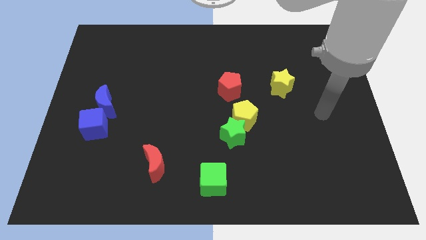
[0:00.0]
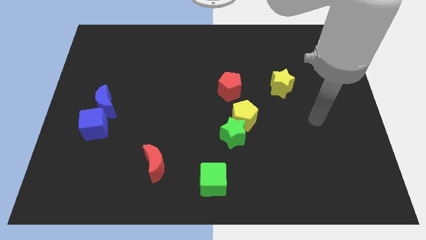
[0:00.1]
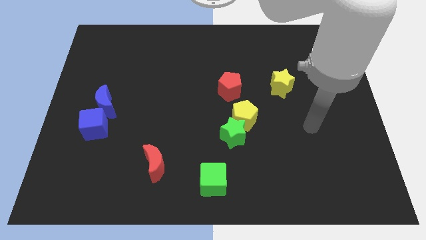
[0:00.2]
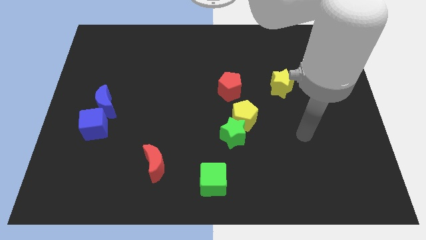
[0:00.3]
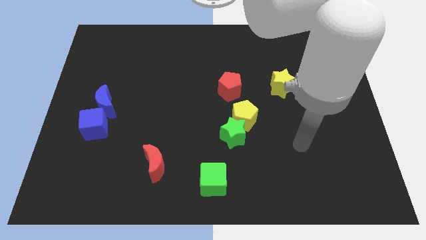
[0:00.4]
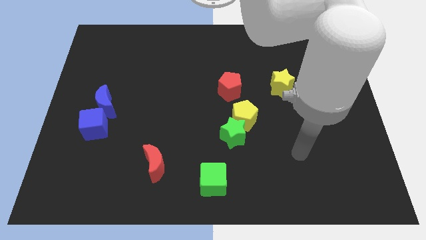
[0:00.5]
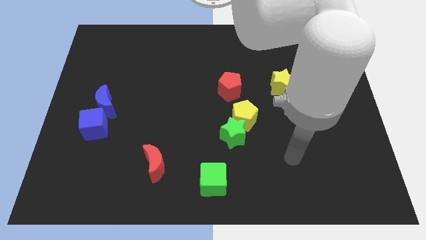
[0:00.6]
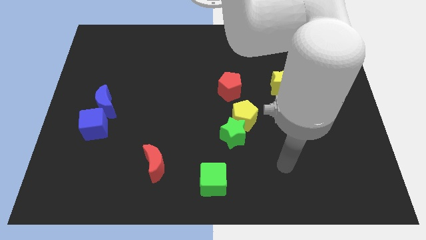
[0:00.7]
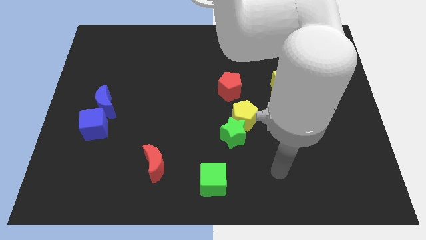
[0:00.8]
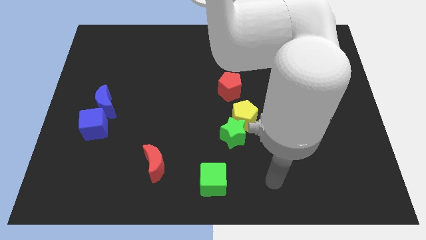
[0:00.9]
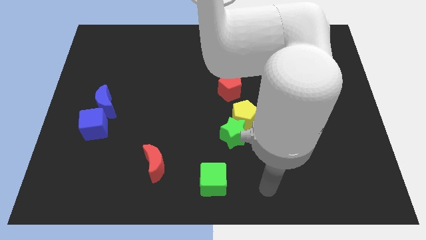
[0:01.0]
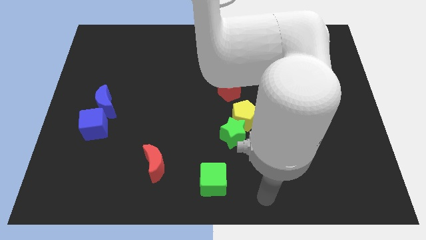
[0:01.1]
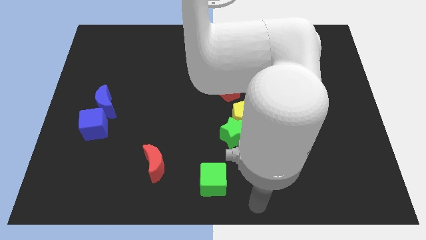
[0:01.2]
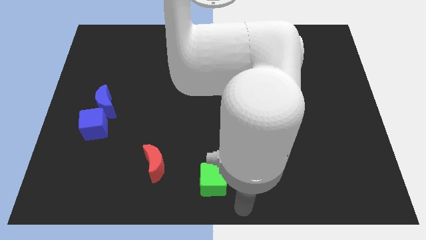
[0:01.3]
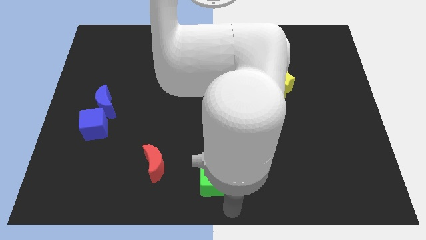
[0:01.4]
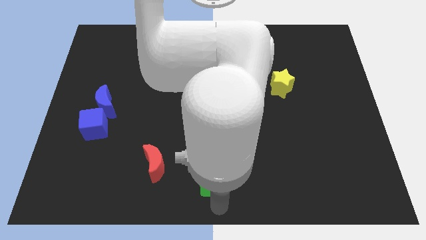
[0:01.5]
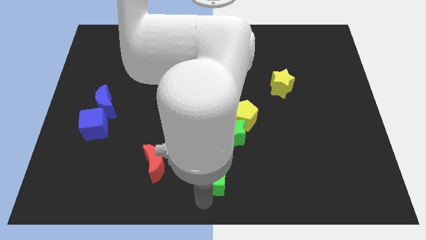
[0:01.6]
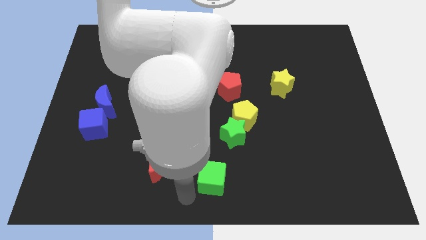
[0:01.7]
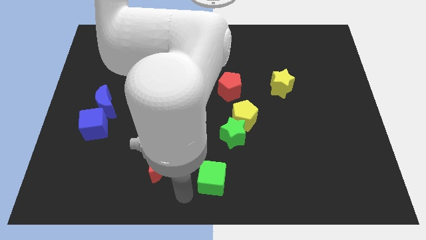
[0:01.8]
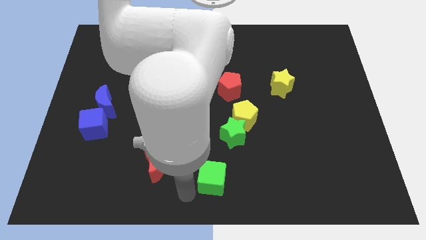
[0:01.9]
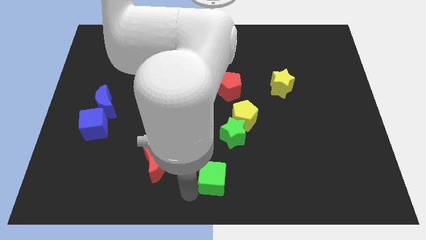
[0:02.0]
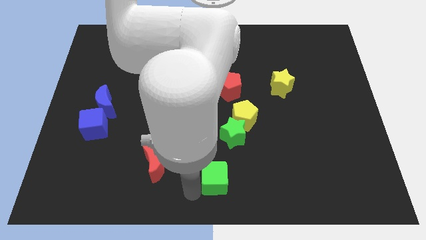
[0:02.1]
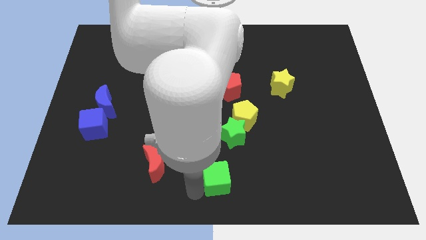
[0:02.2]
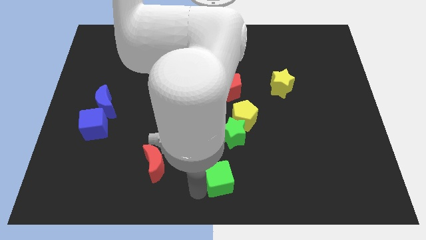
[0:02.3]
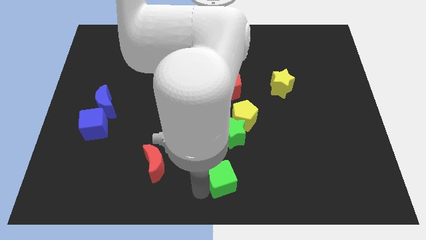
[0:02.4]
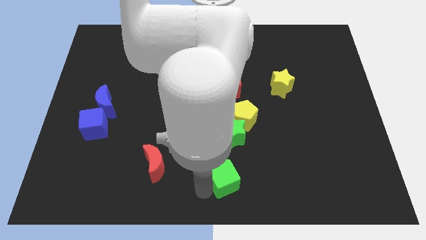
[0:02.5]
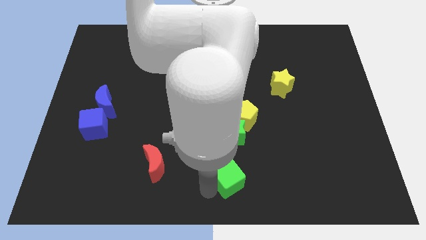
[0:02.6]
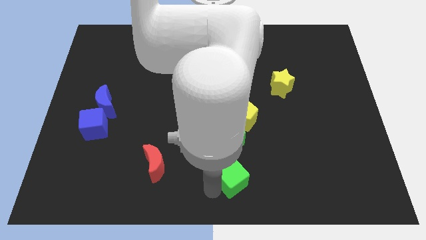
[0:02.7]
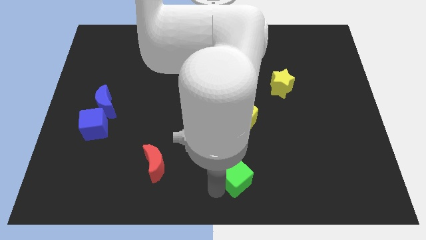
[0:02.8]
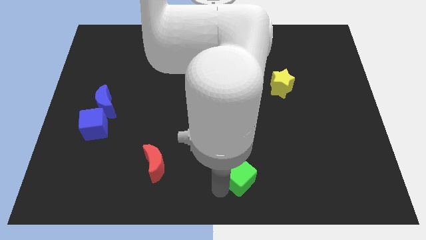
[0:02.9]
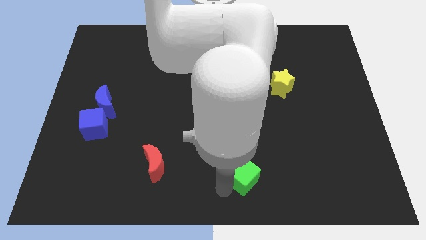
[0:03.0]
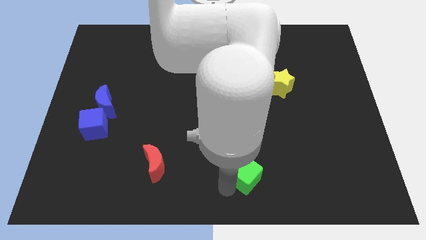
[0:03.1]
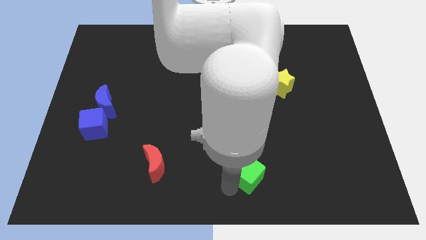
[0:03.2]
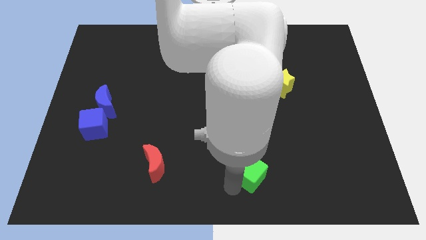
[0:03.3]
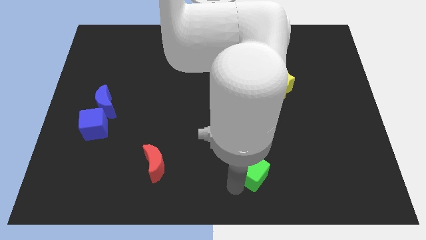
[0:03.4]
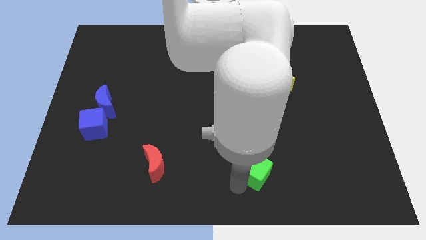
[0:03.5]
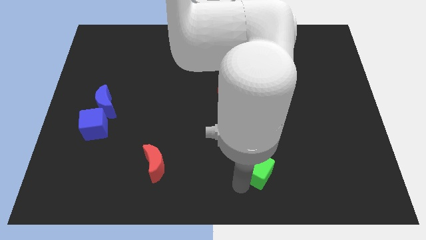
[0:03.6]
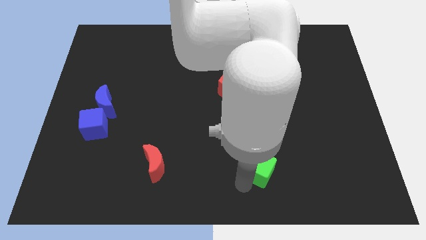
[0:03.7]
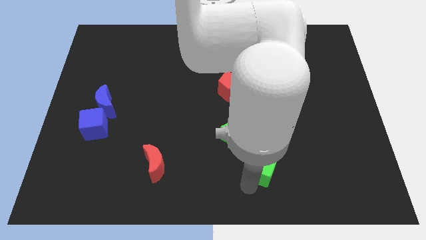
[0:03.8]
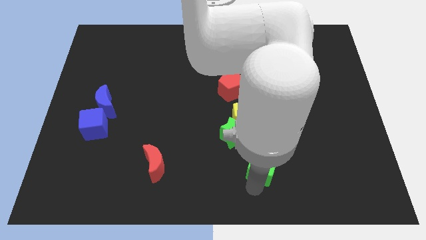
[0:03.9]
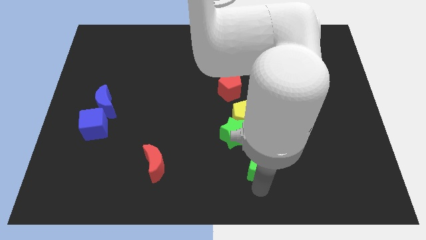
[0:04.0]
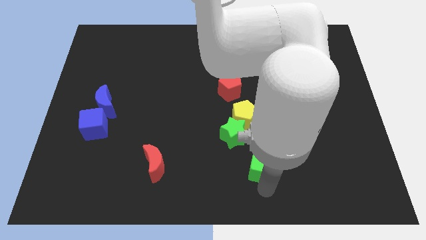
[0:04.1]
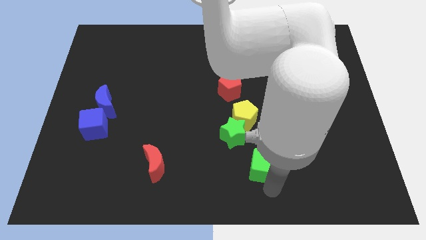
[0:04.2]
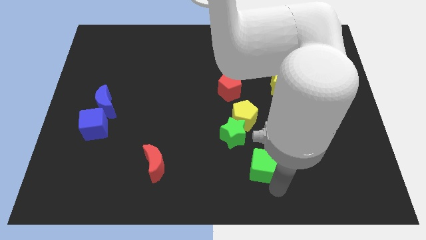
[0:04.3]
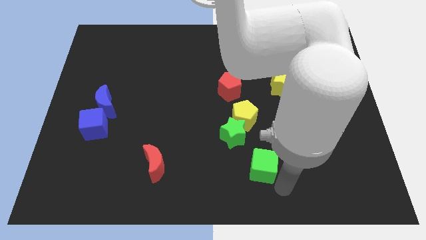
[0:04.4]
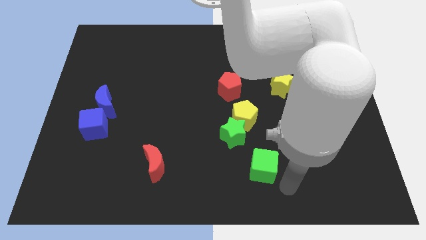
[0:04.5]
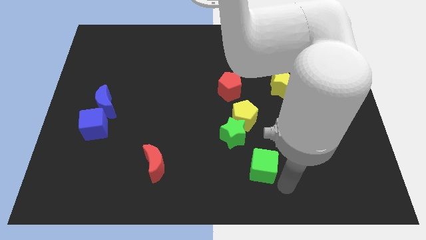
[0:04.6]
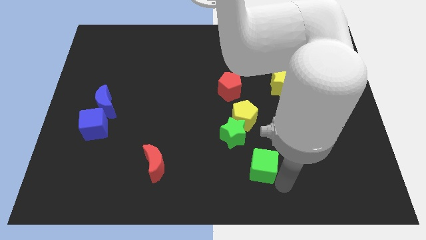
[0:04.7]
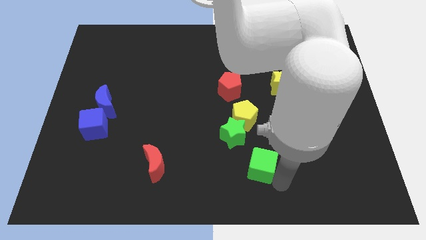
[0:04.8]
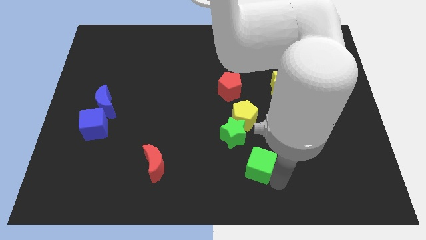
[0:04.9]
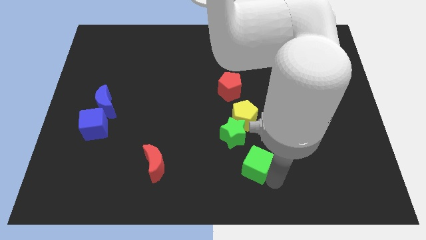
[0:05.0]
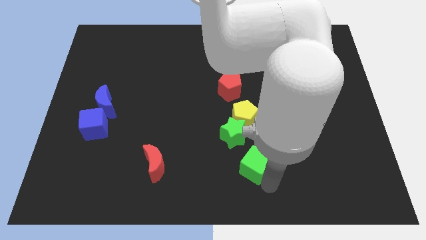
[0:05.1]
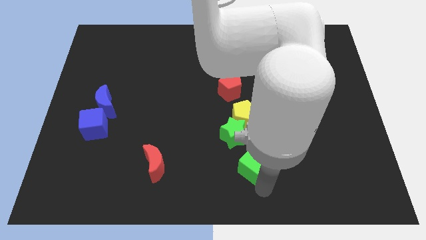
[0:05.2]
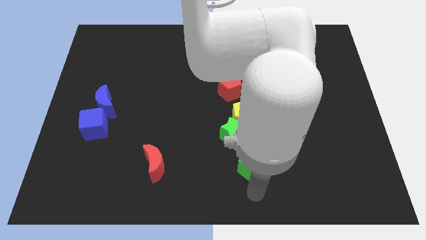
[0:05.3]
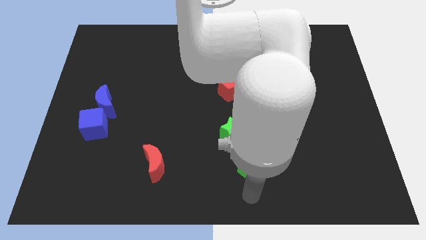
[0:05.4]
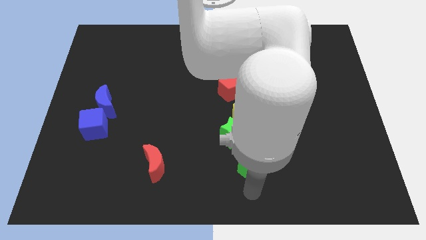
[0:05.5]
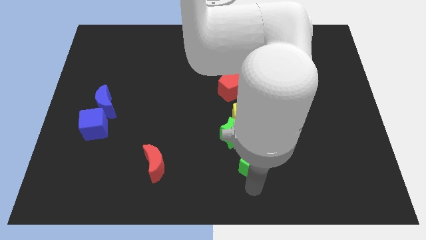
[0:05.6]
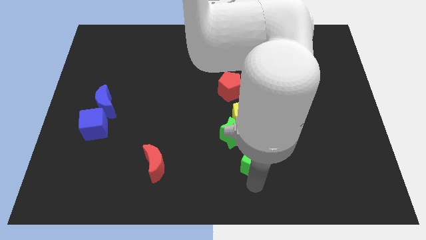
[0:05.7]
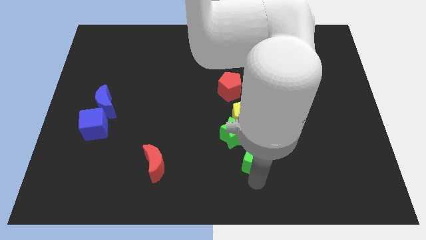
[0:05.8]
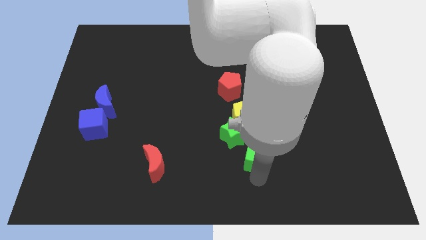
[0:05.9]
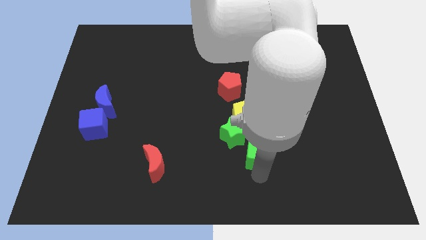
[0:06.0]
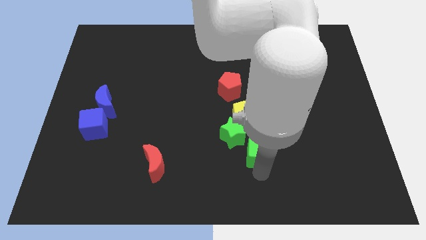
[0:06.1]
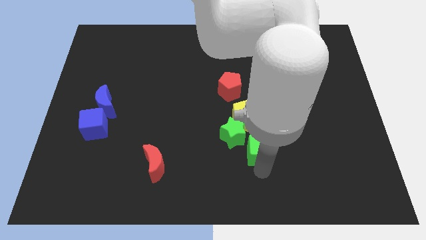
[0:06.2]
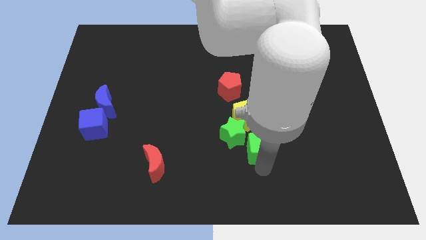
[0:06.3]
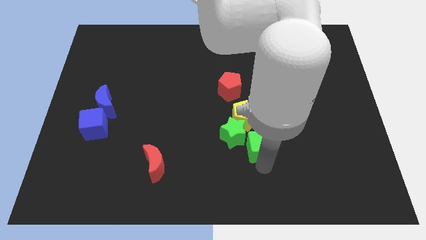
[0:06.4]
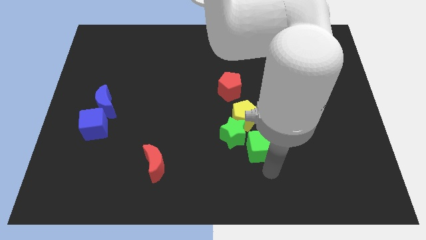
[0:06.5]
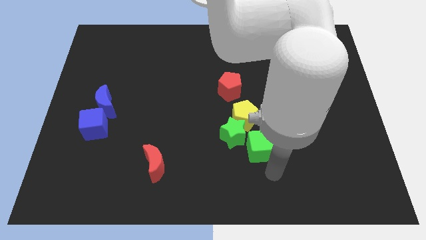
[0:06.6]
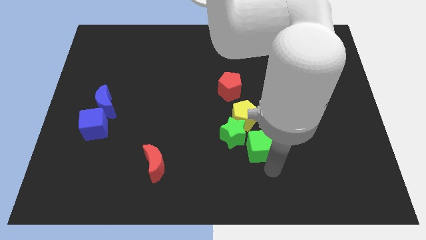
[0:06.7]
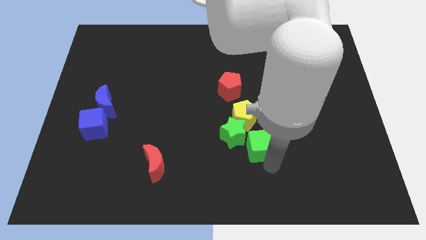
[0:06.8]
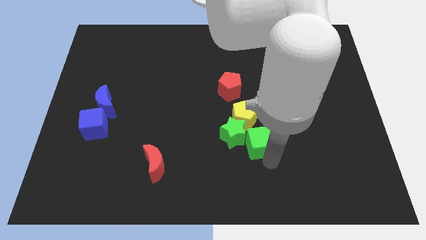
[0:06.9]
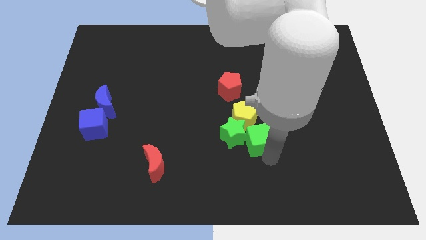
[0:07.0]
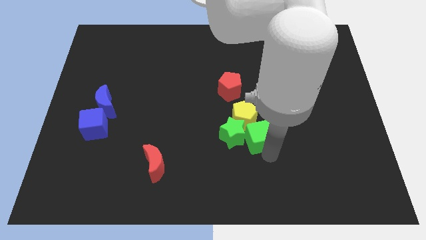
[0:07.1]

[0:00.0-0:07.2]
slide the green cube next to the yellow pentagon

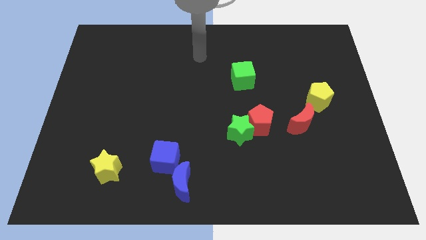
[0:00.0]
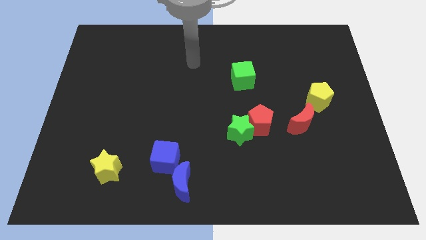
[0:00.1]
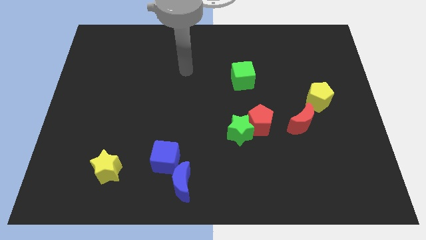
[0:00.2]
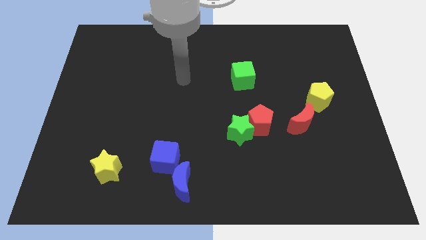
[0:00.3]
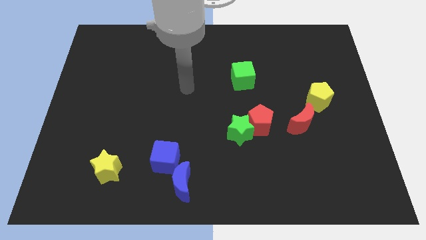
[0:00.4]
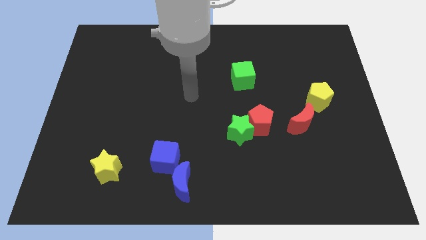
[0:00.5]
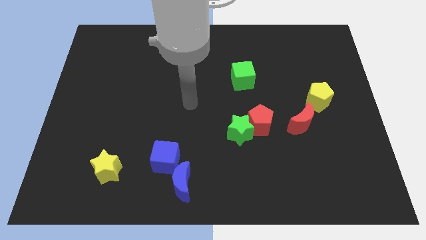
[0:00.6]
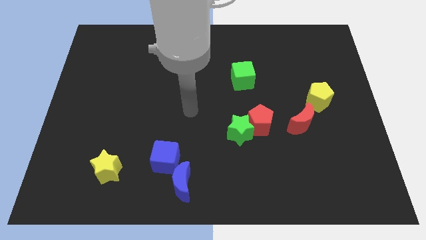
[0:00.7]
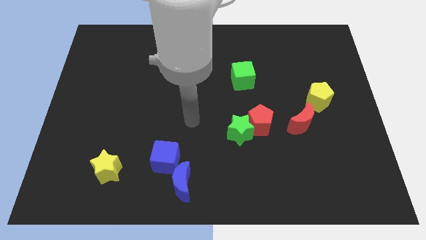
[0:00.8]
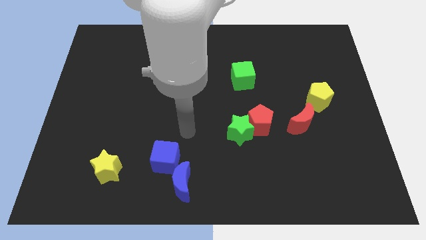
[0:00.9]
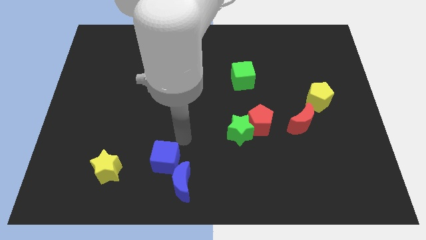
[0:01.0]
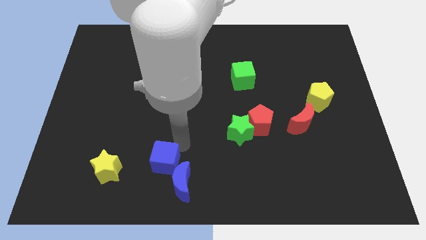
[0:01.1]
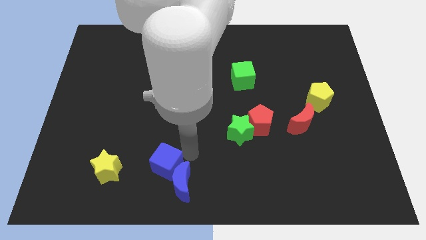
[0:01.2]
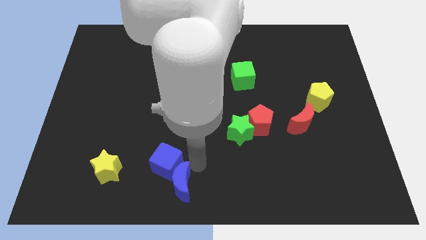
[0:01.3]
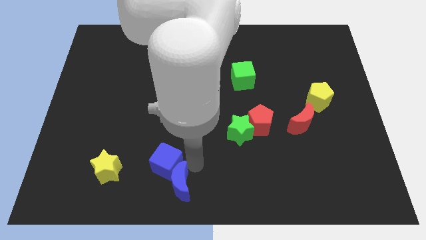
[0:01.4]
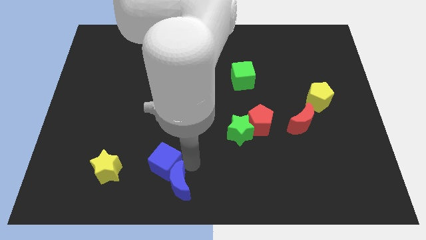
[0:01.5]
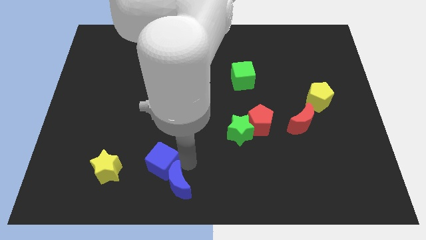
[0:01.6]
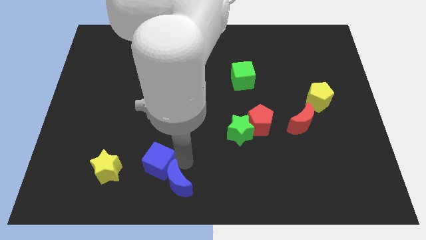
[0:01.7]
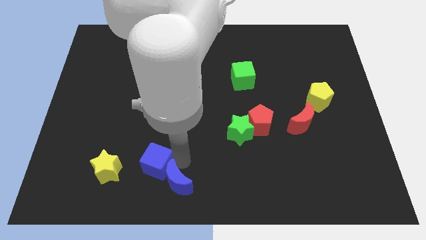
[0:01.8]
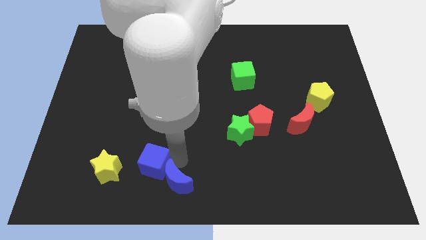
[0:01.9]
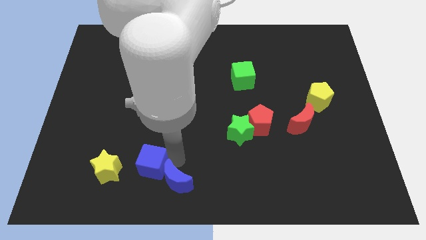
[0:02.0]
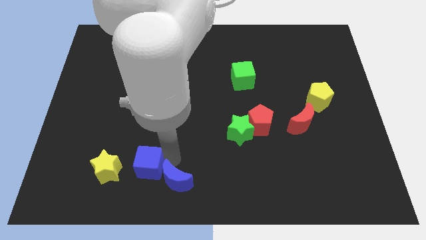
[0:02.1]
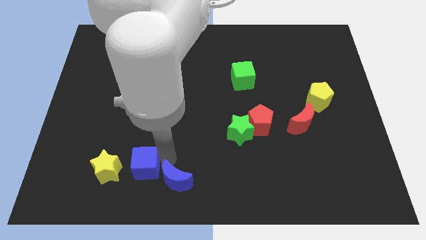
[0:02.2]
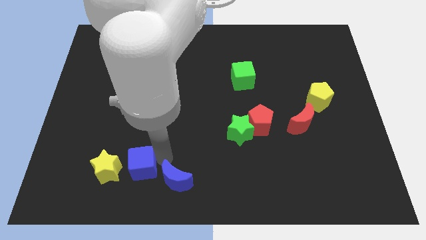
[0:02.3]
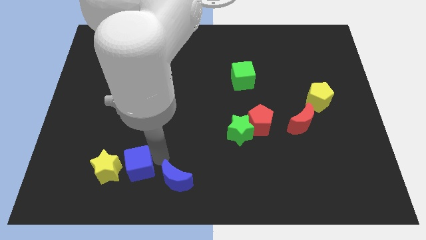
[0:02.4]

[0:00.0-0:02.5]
move the blue cube close to the yellow star
